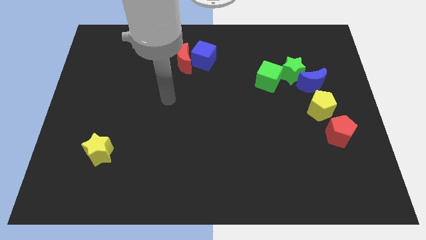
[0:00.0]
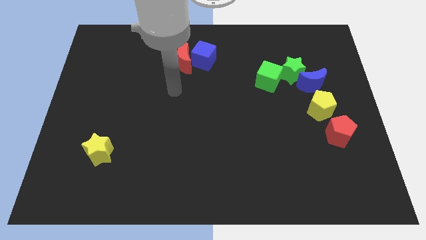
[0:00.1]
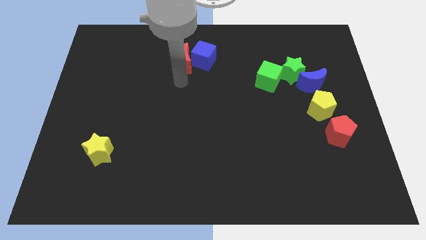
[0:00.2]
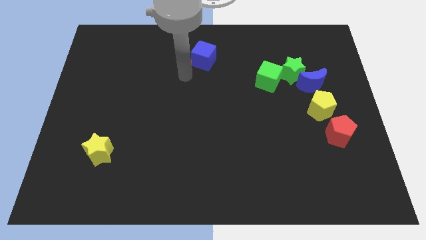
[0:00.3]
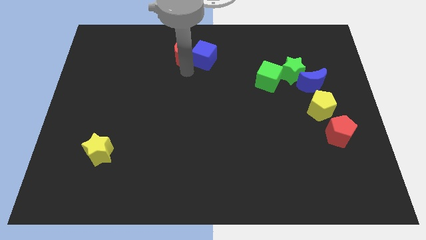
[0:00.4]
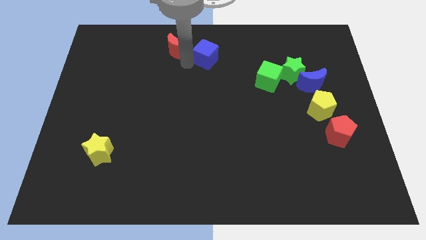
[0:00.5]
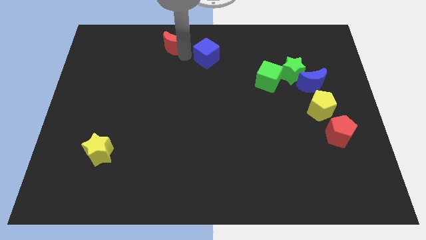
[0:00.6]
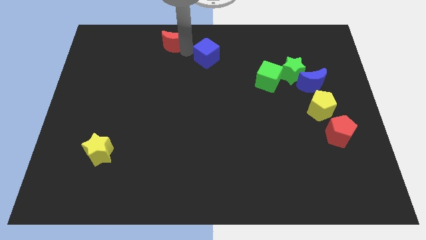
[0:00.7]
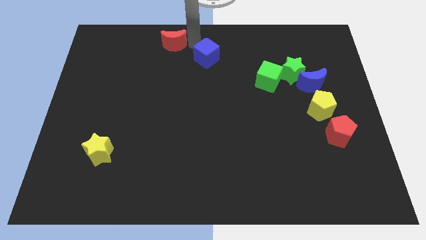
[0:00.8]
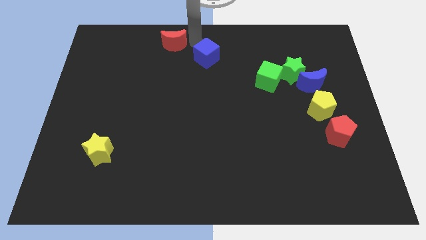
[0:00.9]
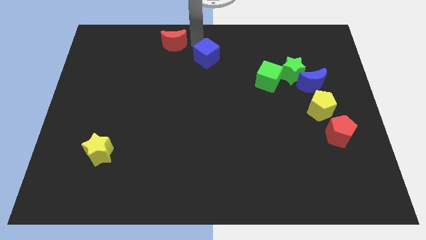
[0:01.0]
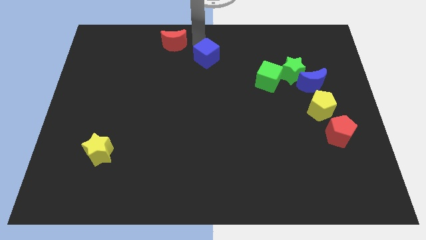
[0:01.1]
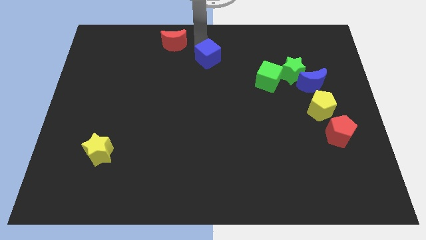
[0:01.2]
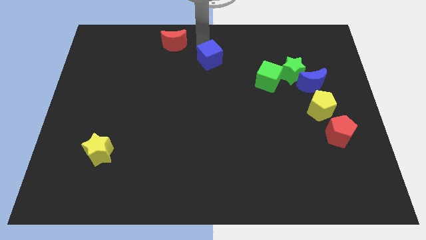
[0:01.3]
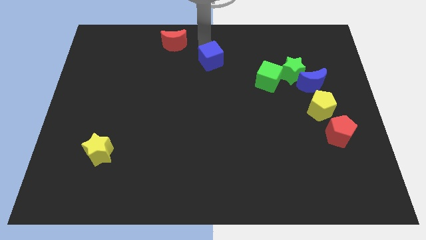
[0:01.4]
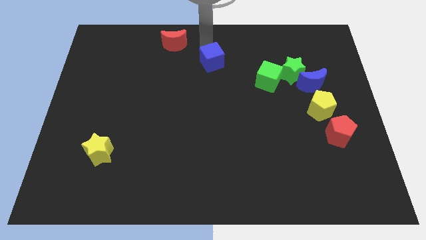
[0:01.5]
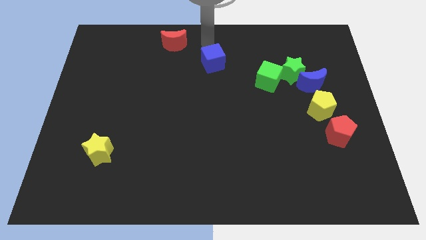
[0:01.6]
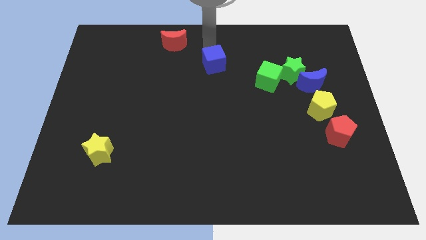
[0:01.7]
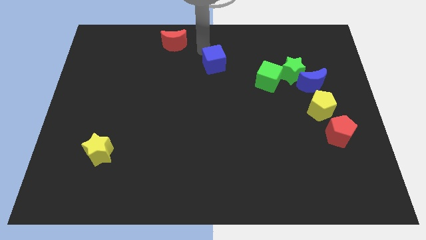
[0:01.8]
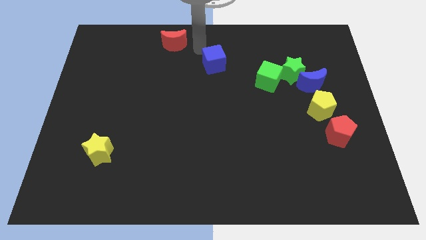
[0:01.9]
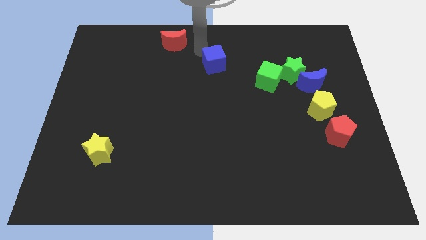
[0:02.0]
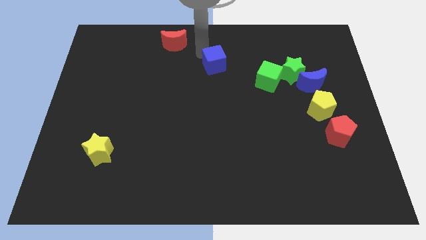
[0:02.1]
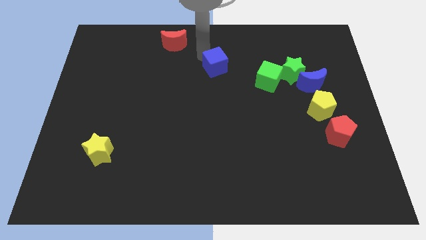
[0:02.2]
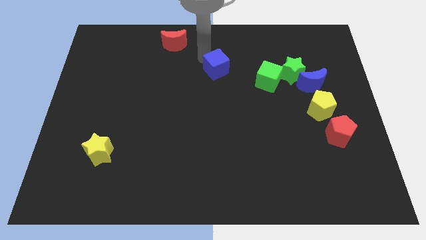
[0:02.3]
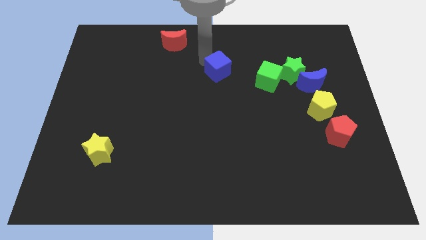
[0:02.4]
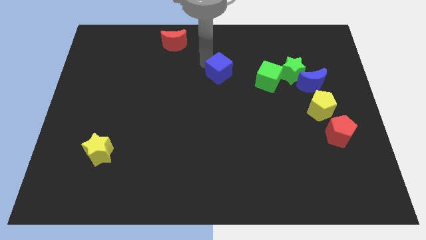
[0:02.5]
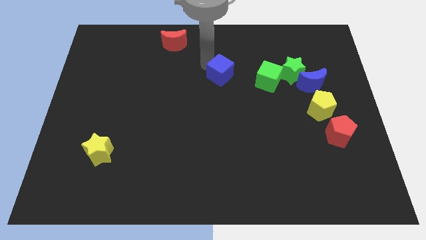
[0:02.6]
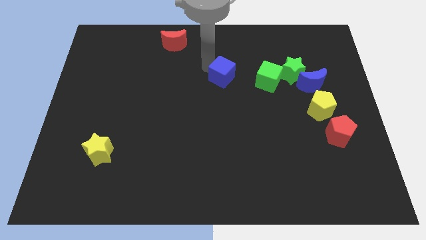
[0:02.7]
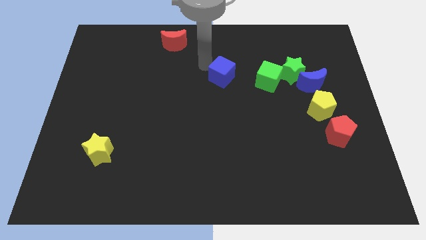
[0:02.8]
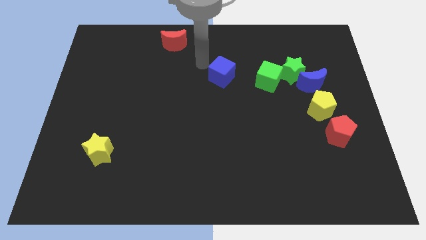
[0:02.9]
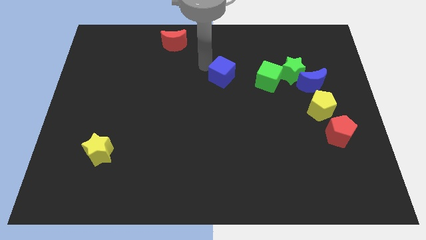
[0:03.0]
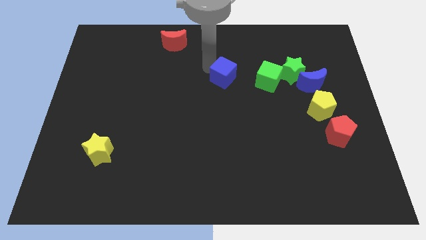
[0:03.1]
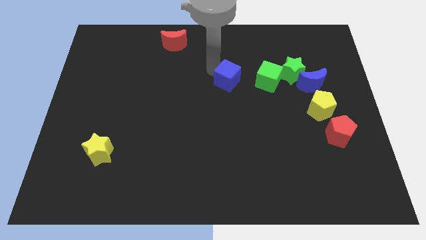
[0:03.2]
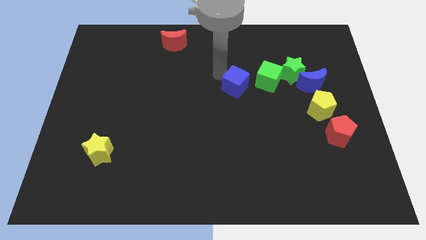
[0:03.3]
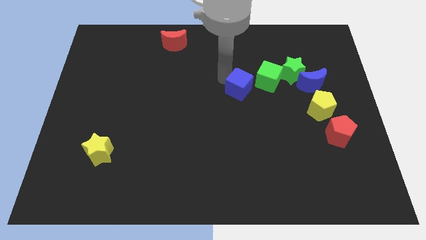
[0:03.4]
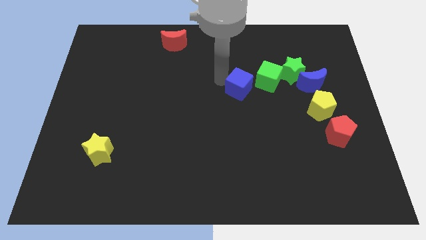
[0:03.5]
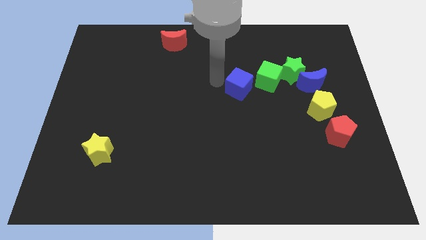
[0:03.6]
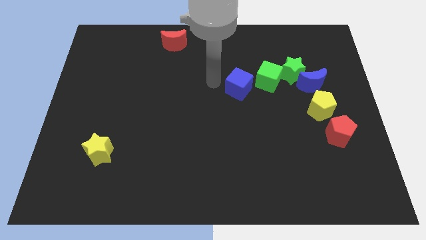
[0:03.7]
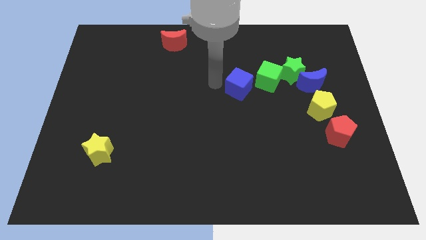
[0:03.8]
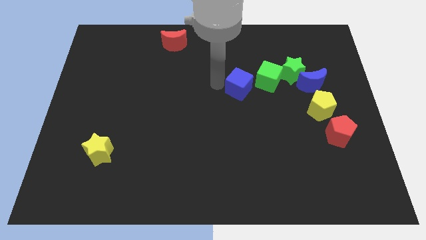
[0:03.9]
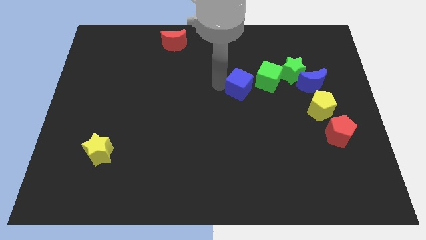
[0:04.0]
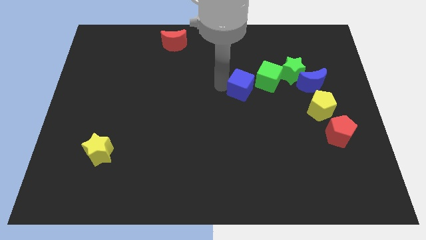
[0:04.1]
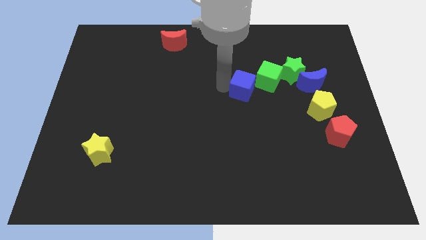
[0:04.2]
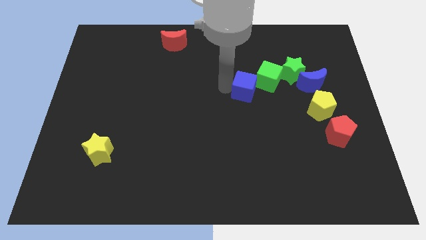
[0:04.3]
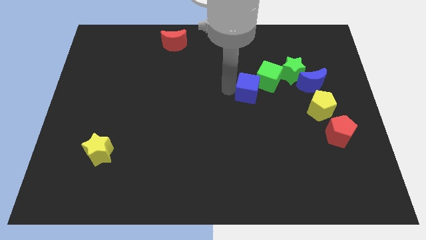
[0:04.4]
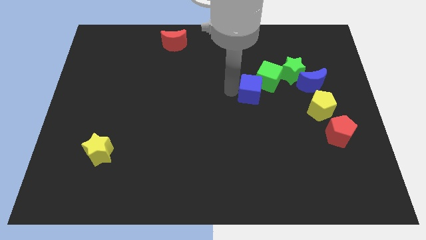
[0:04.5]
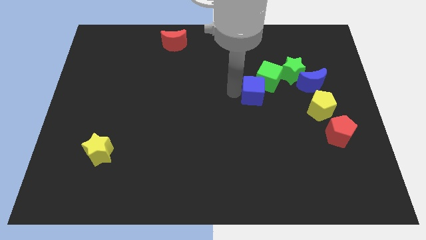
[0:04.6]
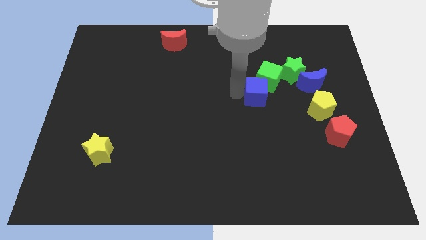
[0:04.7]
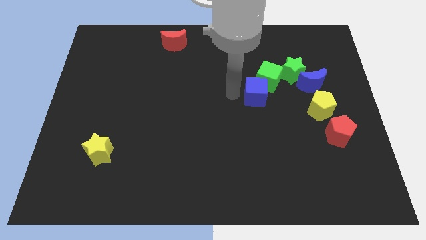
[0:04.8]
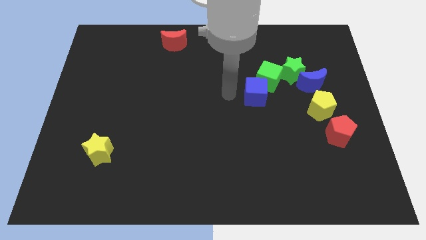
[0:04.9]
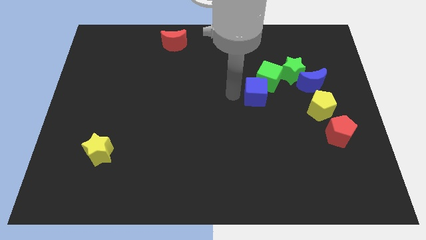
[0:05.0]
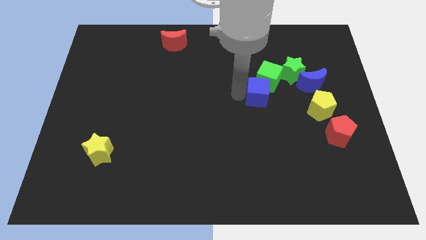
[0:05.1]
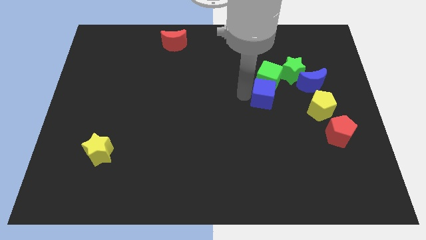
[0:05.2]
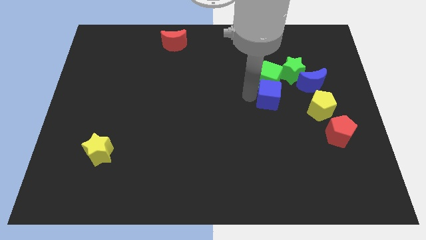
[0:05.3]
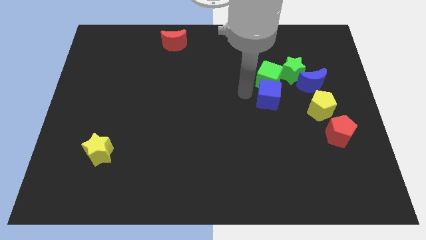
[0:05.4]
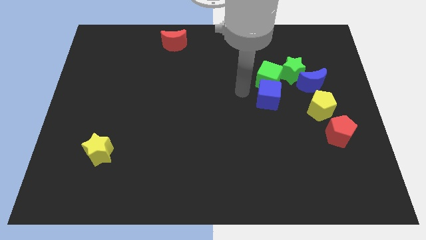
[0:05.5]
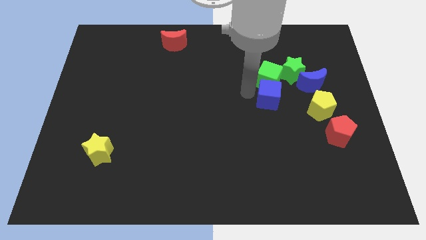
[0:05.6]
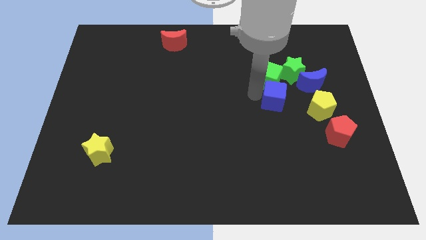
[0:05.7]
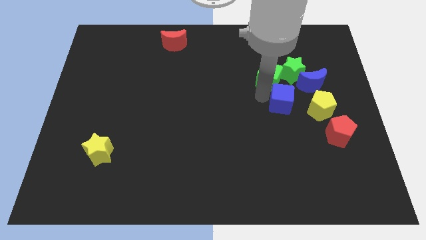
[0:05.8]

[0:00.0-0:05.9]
slide the blue cube below the green star

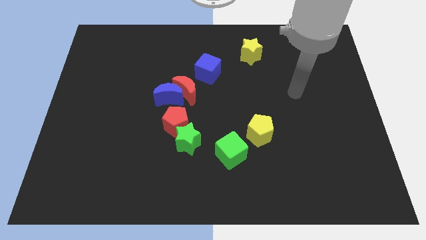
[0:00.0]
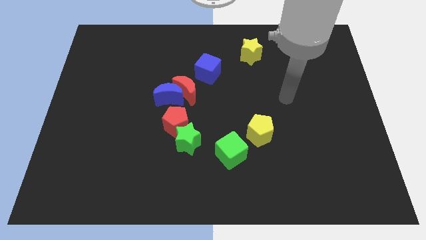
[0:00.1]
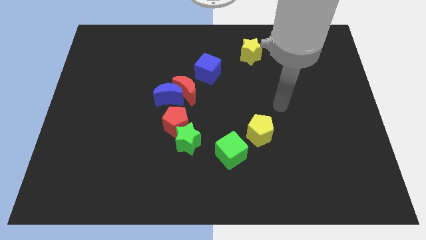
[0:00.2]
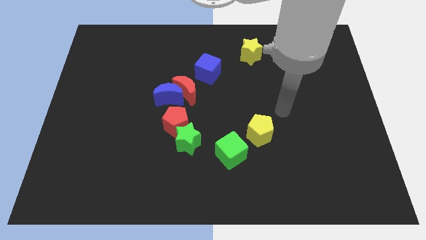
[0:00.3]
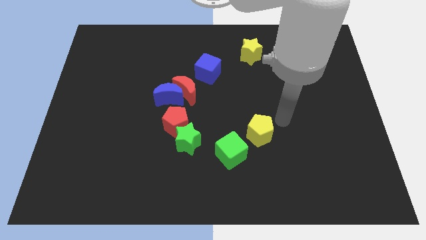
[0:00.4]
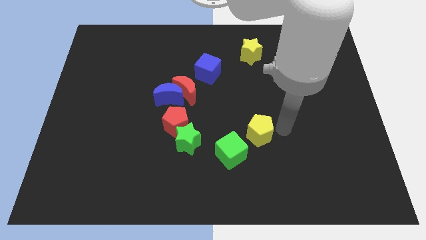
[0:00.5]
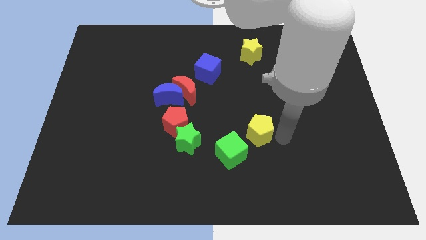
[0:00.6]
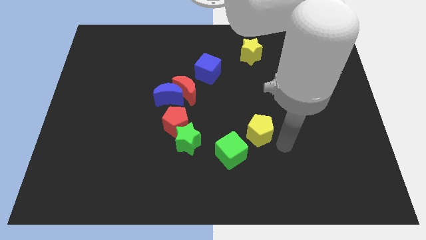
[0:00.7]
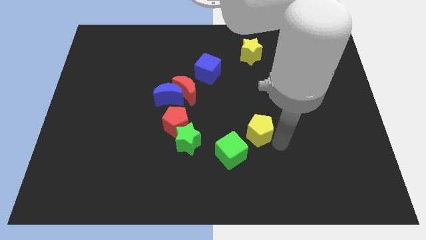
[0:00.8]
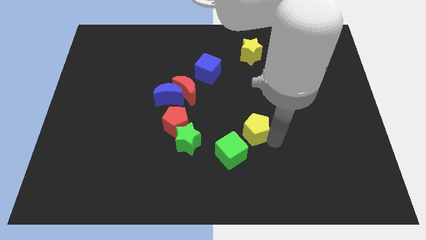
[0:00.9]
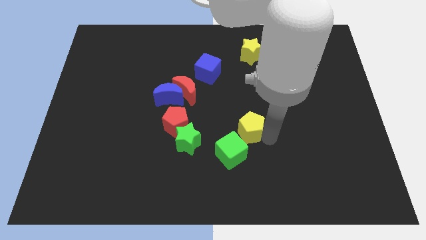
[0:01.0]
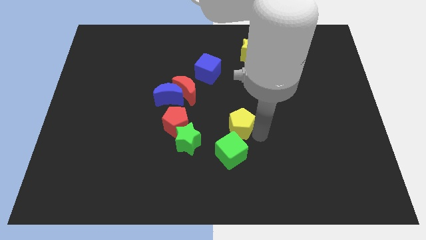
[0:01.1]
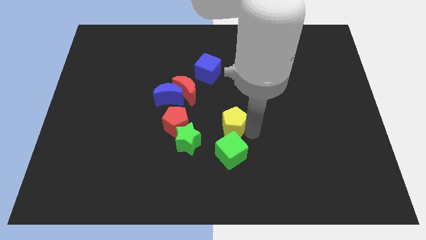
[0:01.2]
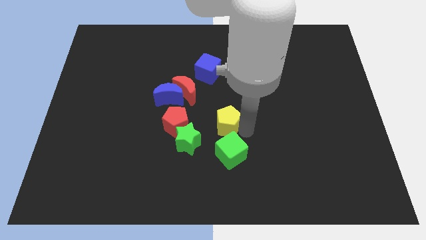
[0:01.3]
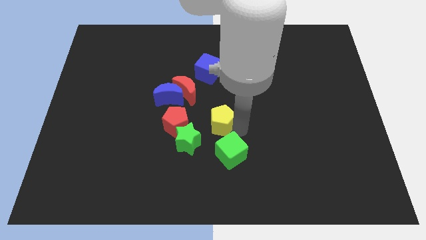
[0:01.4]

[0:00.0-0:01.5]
push the yellow pentagon to the bottom right of the red moon
